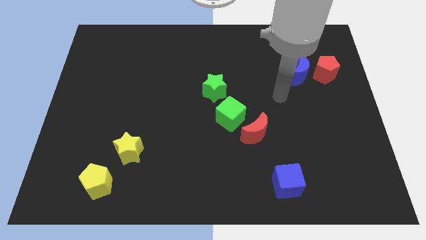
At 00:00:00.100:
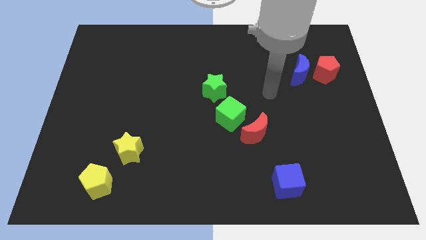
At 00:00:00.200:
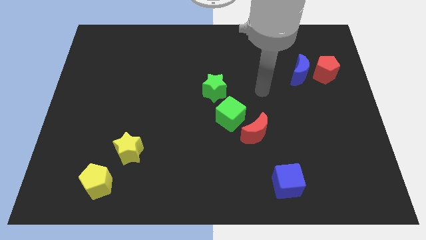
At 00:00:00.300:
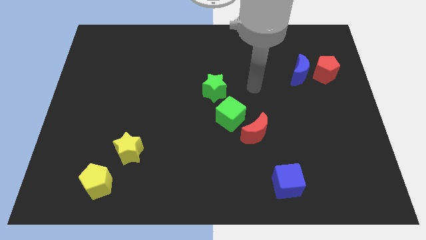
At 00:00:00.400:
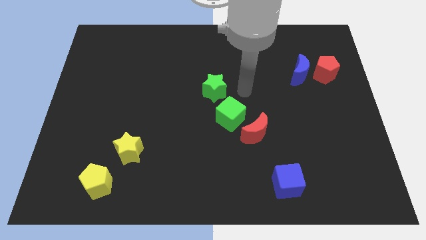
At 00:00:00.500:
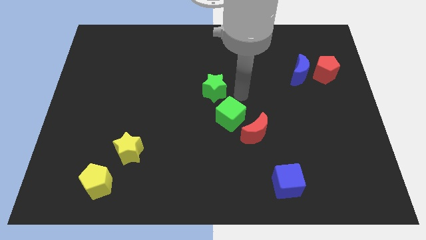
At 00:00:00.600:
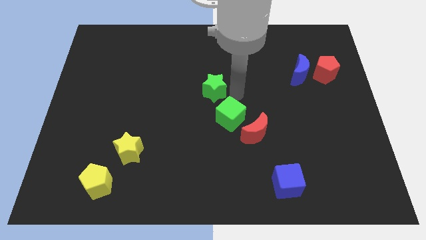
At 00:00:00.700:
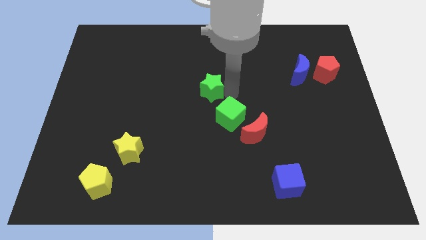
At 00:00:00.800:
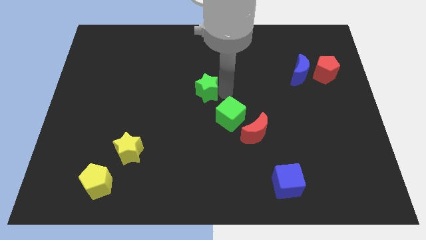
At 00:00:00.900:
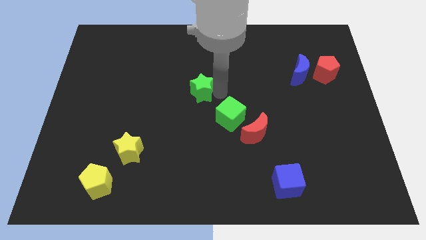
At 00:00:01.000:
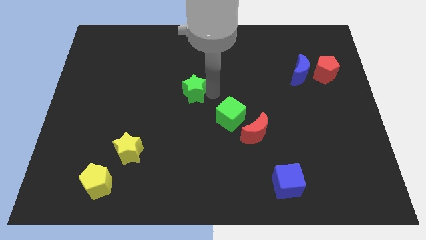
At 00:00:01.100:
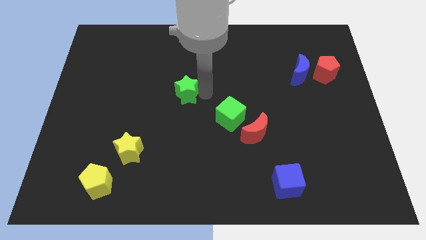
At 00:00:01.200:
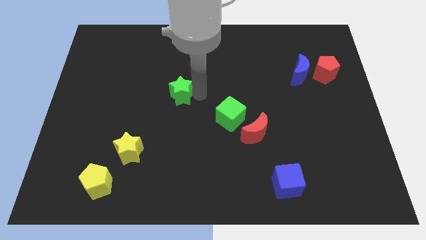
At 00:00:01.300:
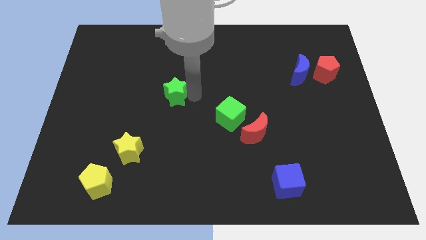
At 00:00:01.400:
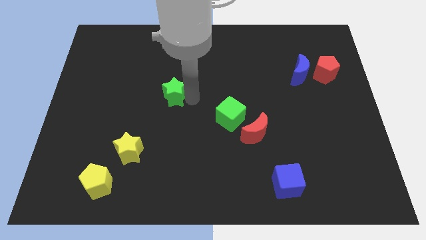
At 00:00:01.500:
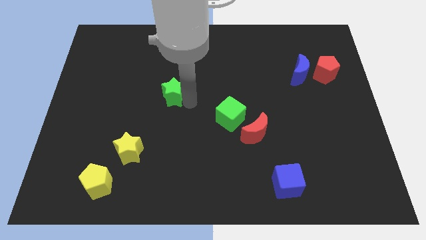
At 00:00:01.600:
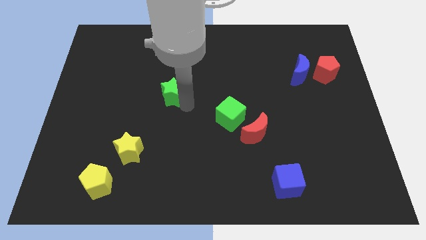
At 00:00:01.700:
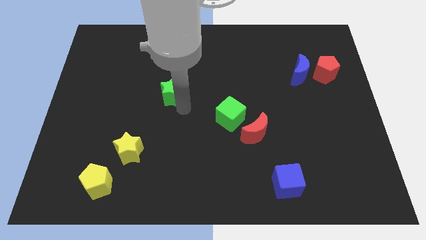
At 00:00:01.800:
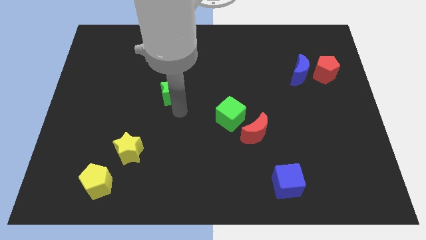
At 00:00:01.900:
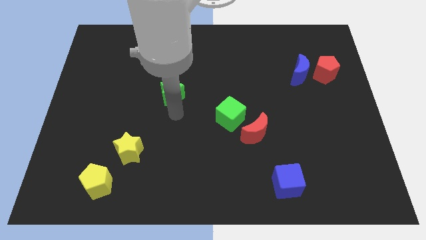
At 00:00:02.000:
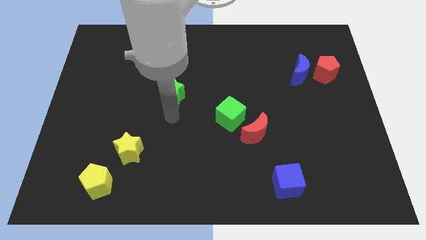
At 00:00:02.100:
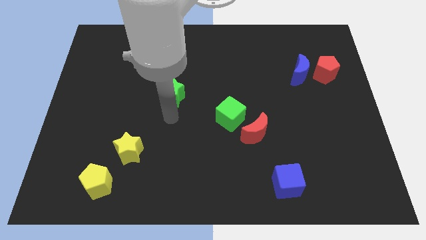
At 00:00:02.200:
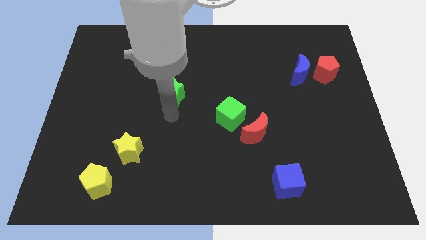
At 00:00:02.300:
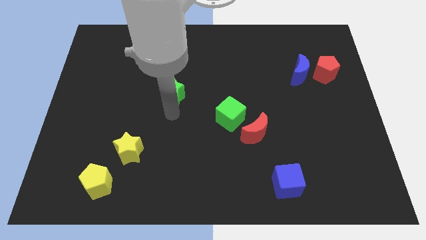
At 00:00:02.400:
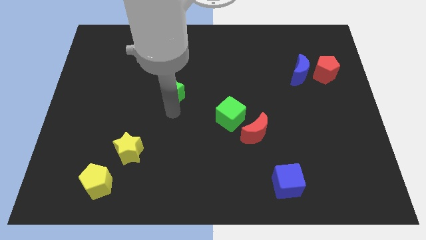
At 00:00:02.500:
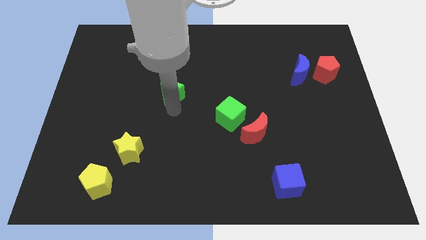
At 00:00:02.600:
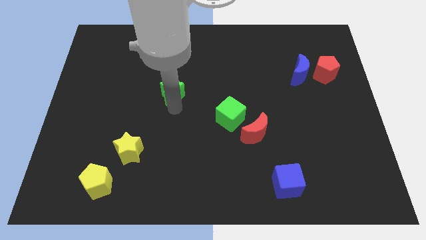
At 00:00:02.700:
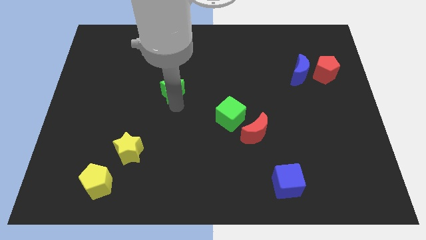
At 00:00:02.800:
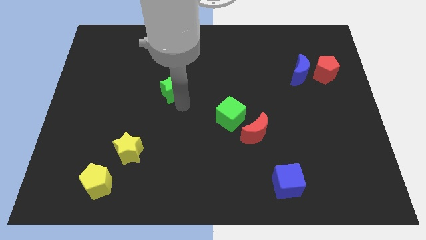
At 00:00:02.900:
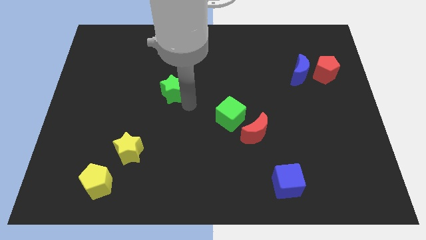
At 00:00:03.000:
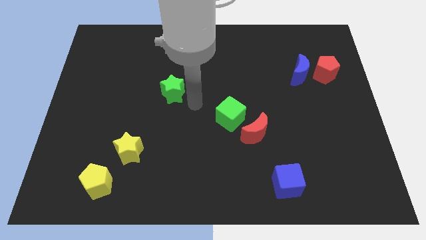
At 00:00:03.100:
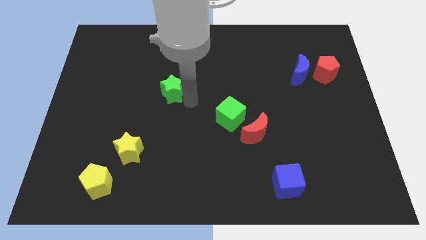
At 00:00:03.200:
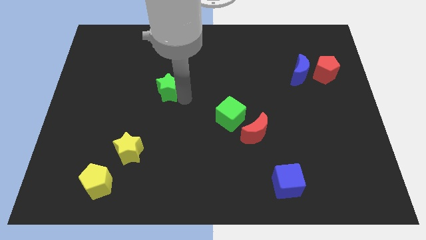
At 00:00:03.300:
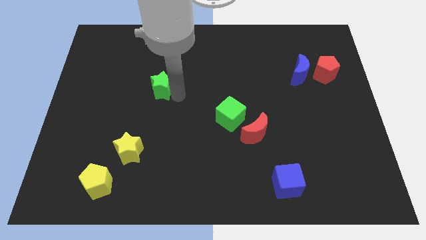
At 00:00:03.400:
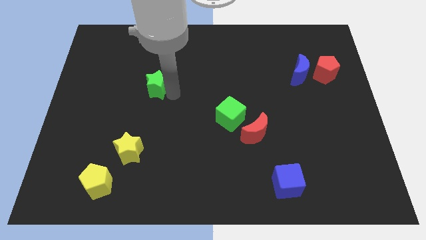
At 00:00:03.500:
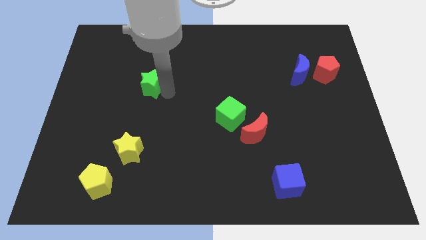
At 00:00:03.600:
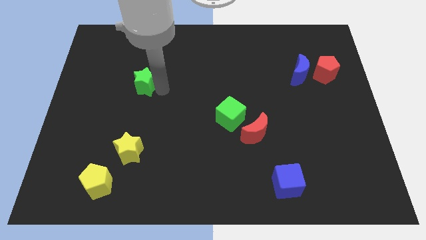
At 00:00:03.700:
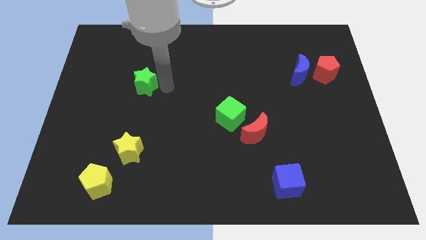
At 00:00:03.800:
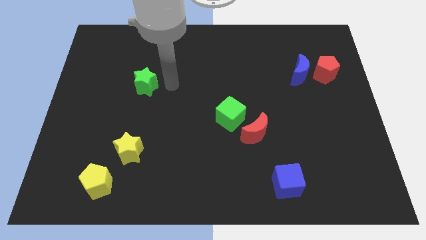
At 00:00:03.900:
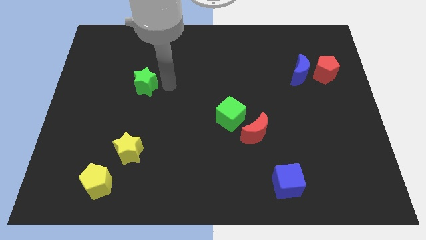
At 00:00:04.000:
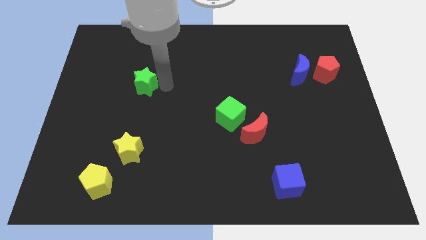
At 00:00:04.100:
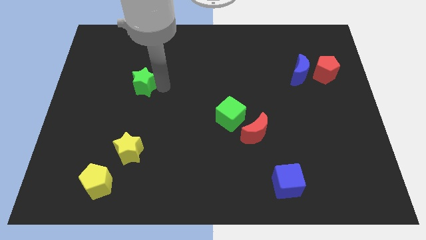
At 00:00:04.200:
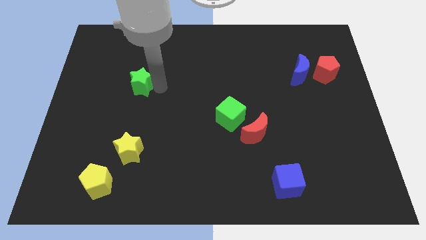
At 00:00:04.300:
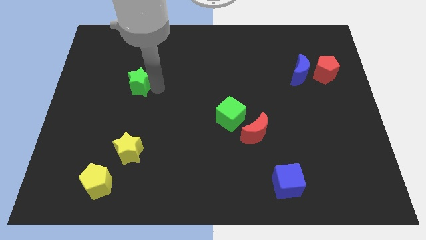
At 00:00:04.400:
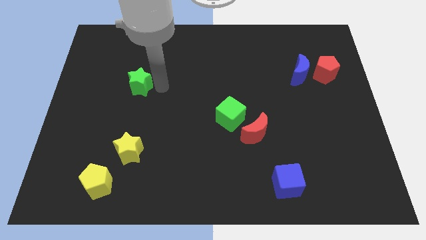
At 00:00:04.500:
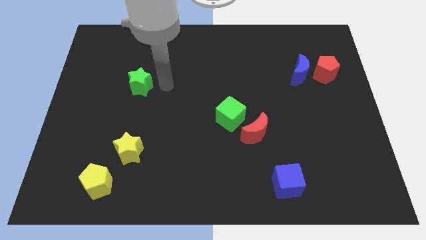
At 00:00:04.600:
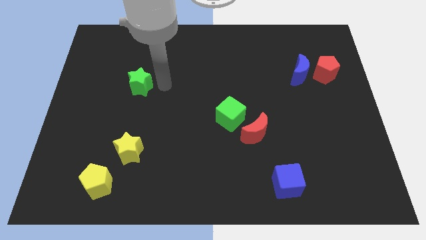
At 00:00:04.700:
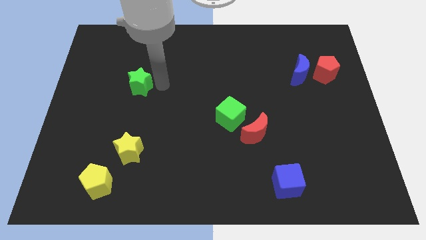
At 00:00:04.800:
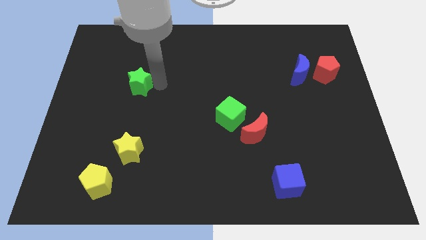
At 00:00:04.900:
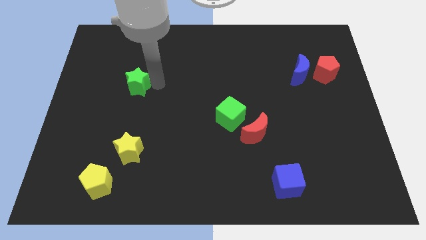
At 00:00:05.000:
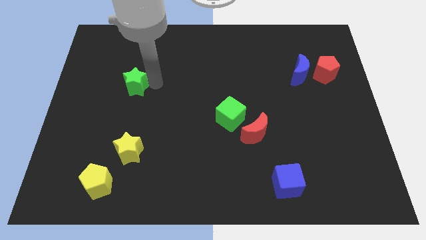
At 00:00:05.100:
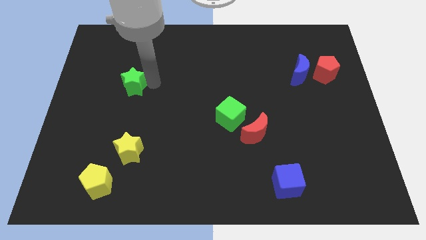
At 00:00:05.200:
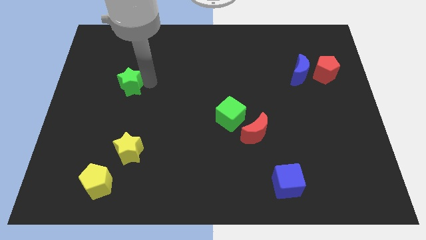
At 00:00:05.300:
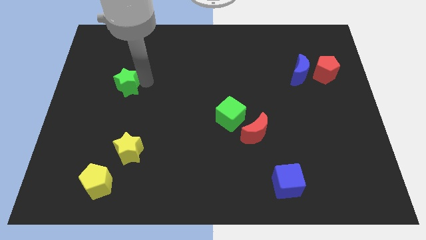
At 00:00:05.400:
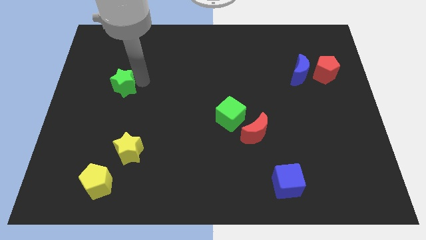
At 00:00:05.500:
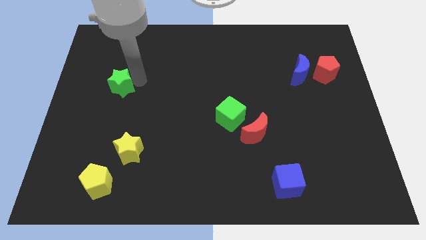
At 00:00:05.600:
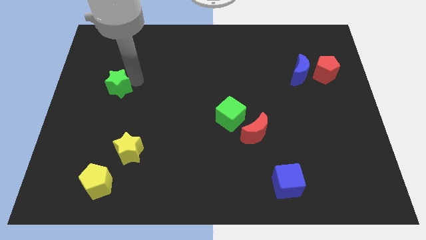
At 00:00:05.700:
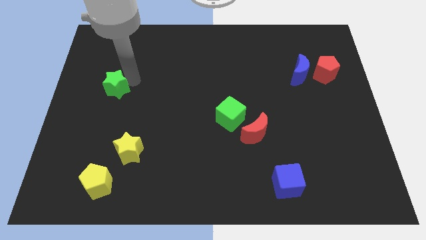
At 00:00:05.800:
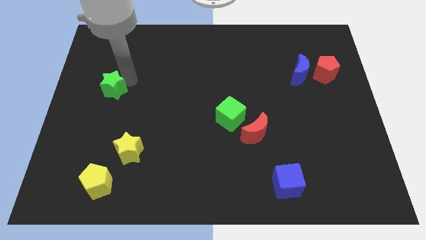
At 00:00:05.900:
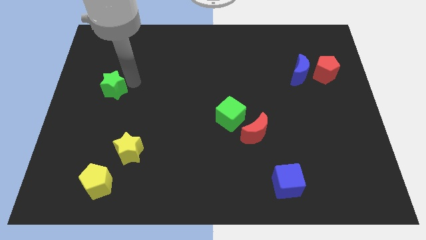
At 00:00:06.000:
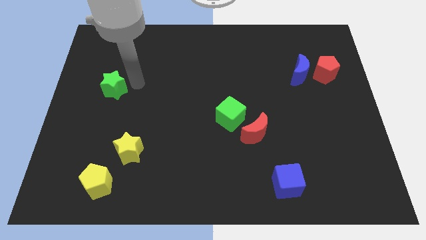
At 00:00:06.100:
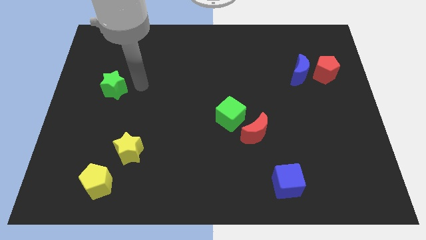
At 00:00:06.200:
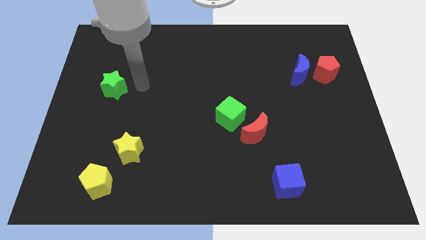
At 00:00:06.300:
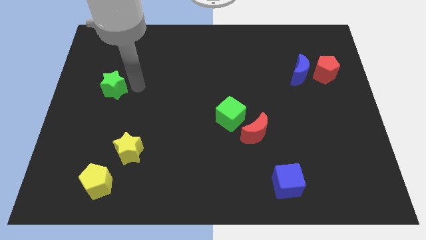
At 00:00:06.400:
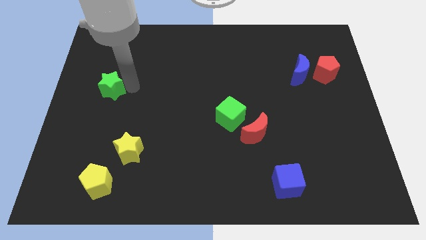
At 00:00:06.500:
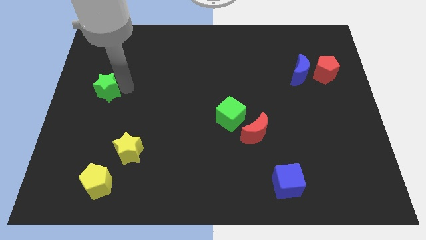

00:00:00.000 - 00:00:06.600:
put the green star to the left side of the board

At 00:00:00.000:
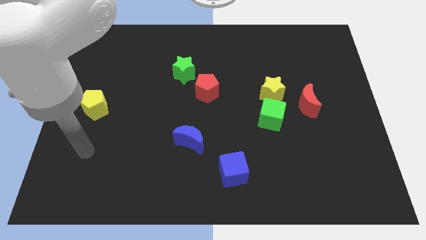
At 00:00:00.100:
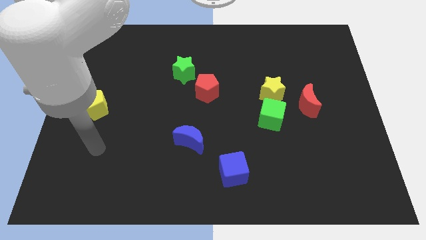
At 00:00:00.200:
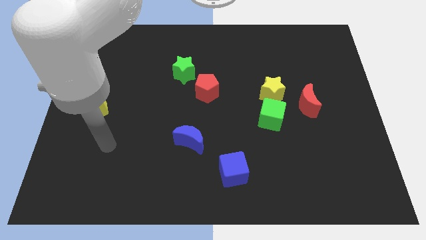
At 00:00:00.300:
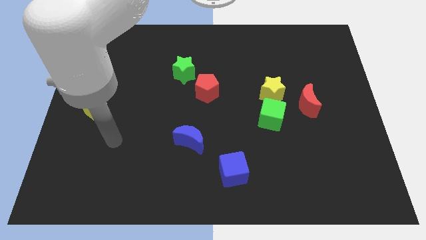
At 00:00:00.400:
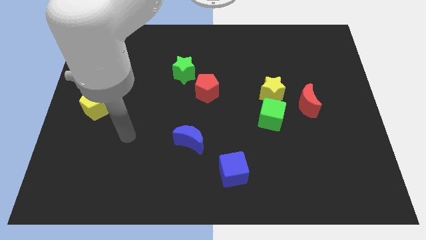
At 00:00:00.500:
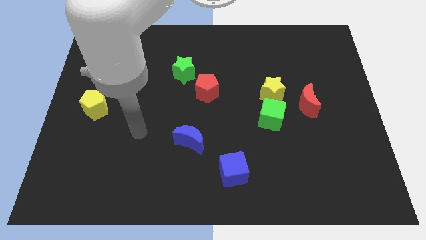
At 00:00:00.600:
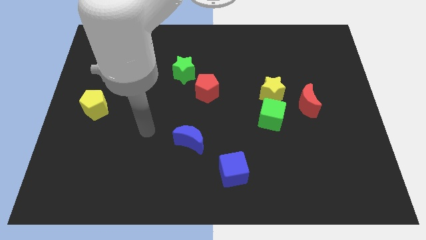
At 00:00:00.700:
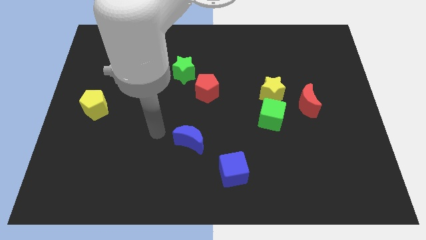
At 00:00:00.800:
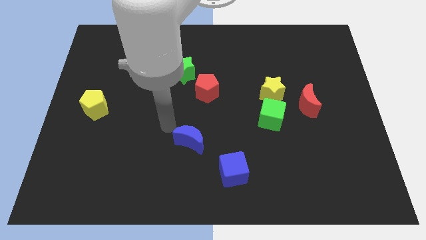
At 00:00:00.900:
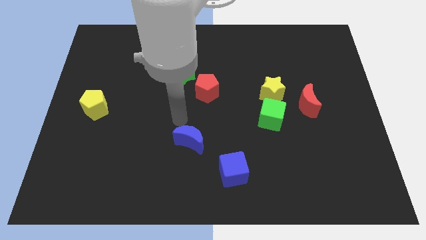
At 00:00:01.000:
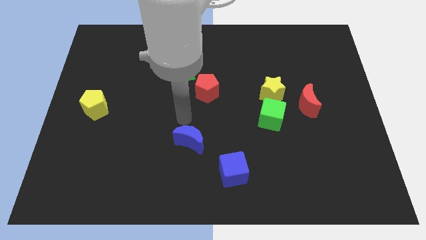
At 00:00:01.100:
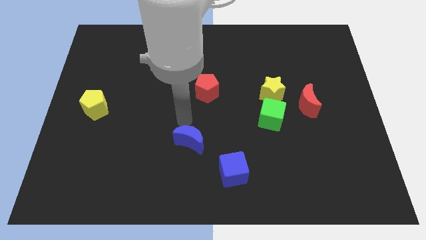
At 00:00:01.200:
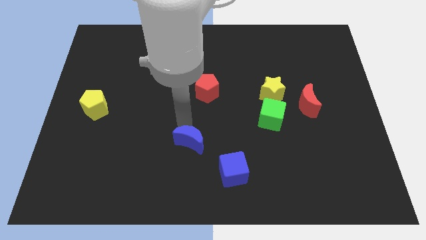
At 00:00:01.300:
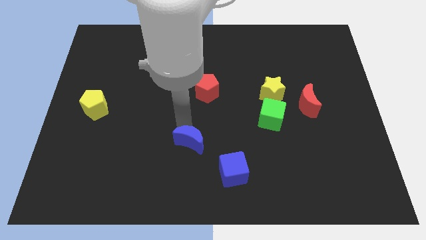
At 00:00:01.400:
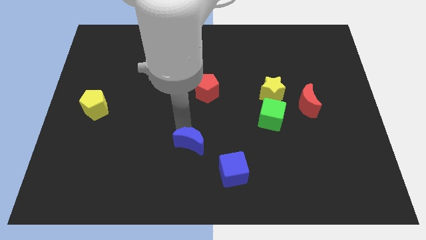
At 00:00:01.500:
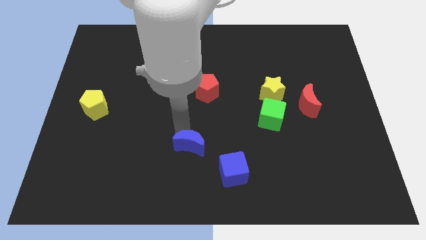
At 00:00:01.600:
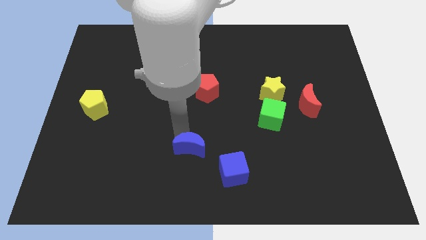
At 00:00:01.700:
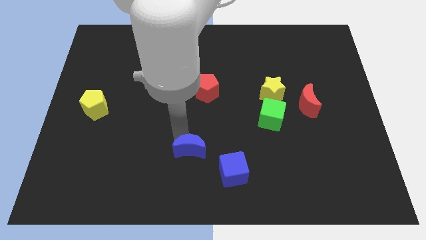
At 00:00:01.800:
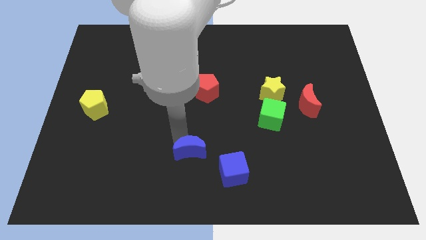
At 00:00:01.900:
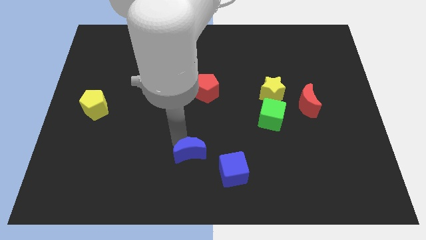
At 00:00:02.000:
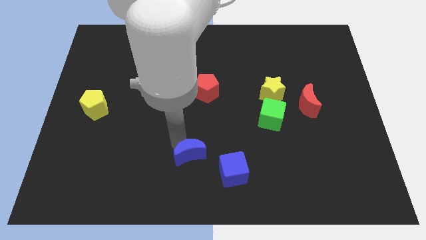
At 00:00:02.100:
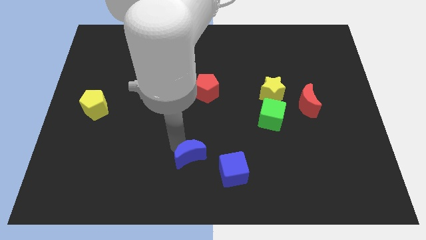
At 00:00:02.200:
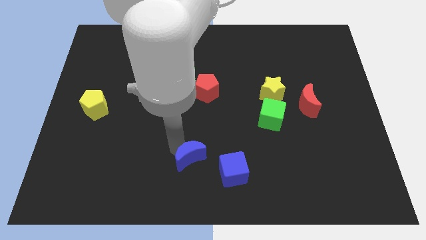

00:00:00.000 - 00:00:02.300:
slide the blue moon to the bottom side
